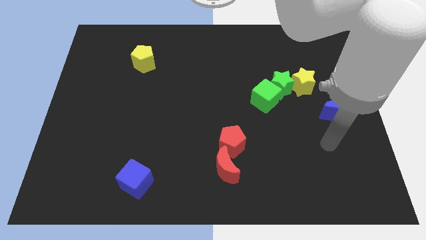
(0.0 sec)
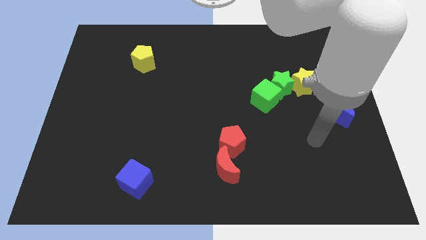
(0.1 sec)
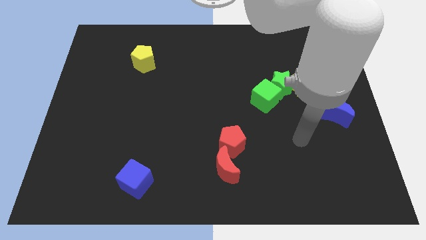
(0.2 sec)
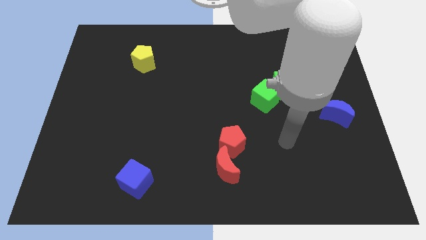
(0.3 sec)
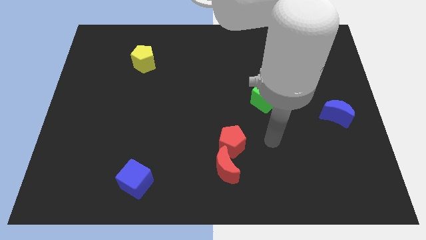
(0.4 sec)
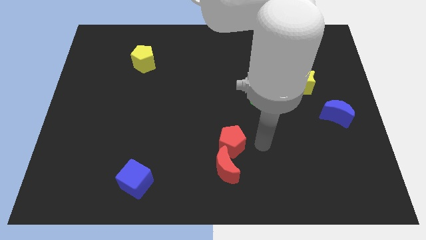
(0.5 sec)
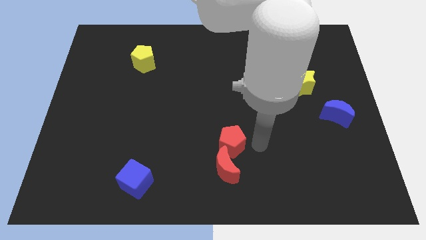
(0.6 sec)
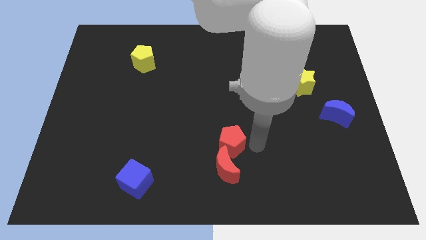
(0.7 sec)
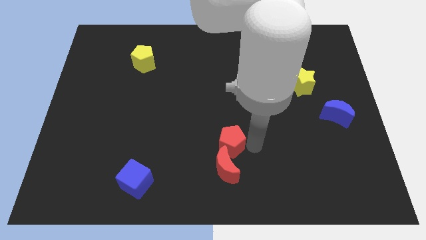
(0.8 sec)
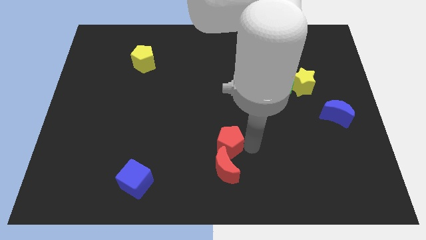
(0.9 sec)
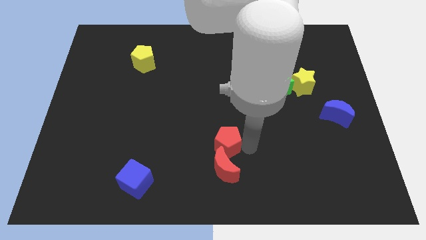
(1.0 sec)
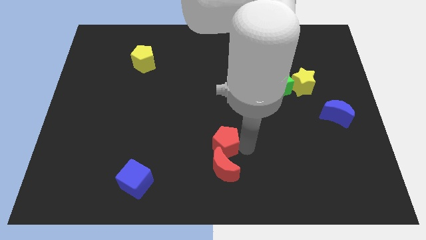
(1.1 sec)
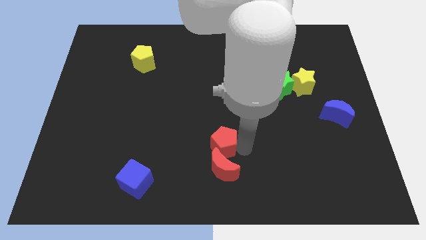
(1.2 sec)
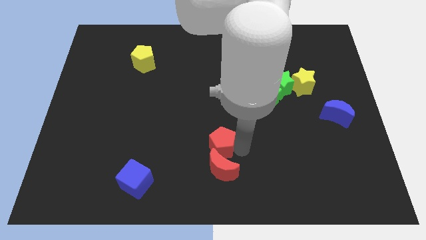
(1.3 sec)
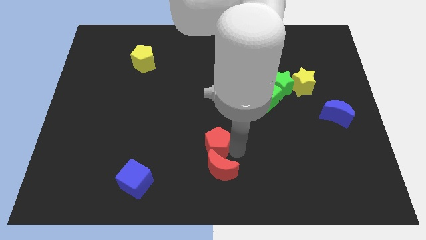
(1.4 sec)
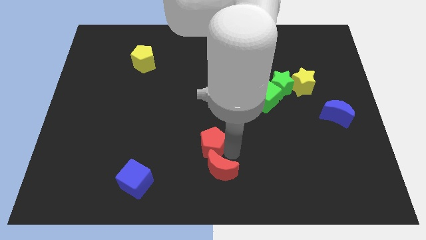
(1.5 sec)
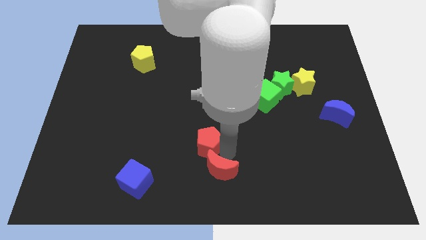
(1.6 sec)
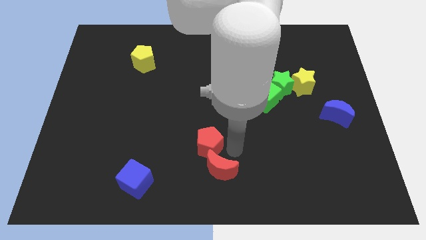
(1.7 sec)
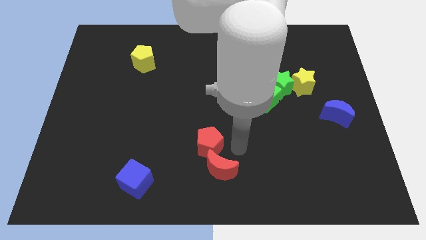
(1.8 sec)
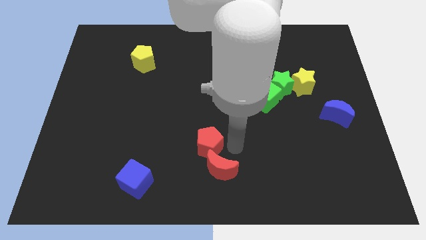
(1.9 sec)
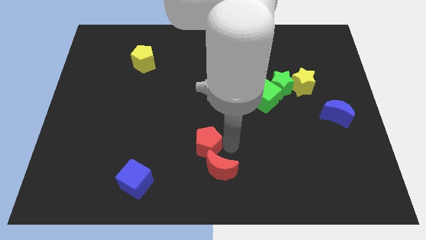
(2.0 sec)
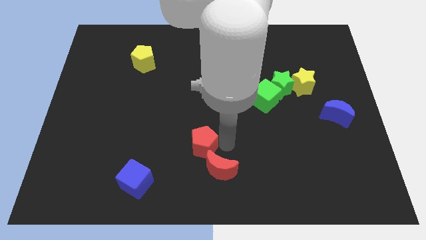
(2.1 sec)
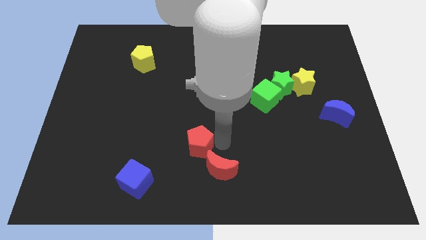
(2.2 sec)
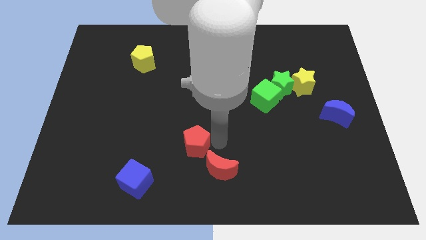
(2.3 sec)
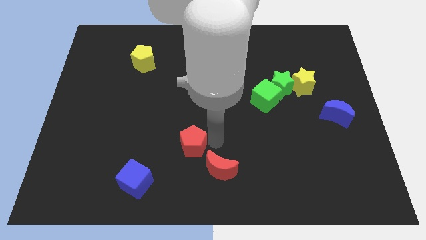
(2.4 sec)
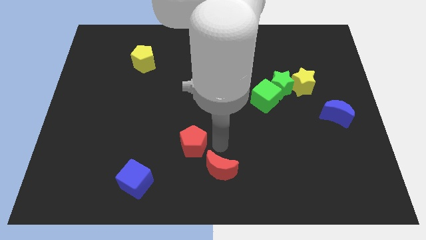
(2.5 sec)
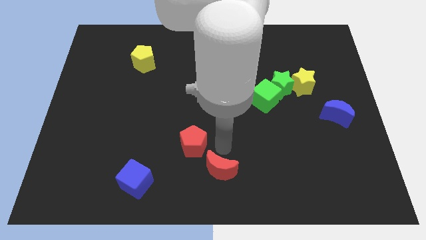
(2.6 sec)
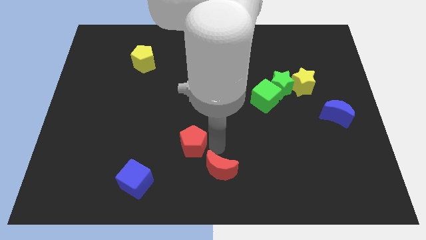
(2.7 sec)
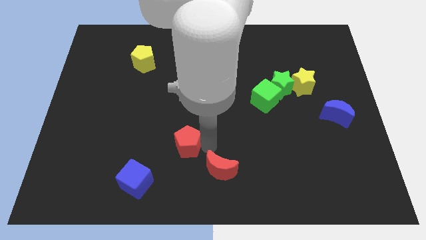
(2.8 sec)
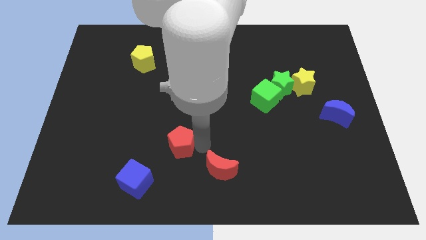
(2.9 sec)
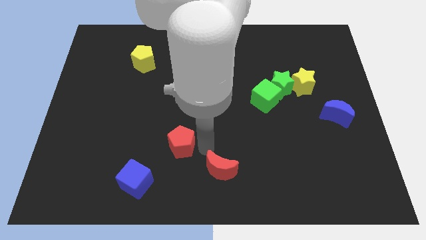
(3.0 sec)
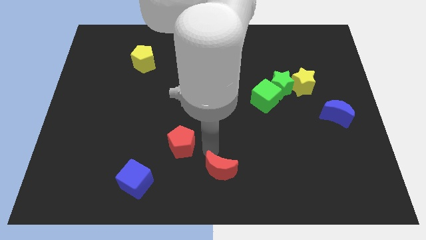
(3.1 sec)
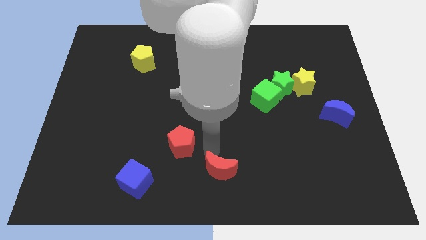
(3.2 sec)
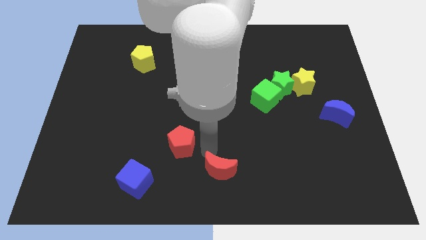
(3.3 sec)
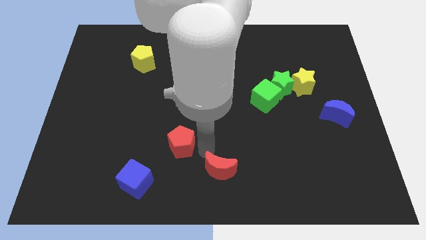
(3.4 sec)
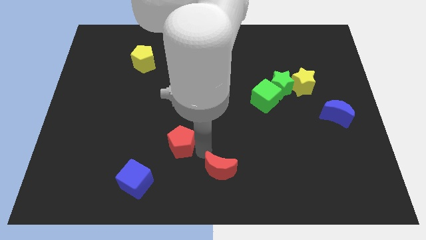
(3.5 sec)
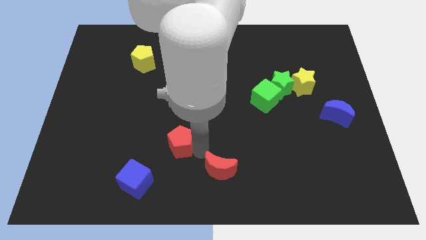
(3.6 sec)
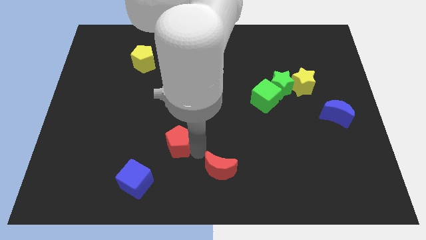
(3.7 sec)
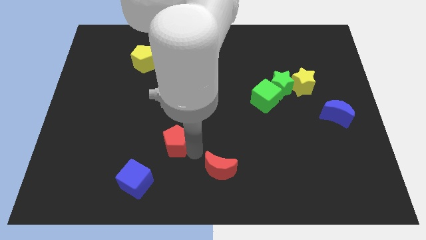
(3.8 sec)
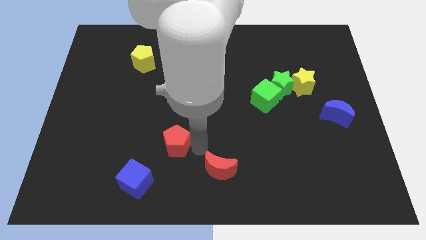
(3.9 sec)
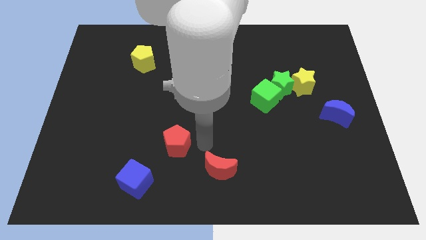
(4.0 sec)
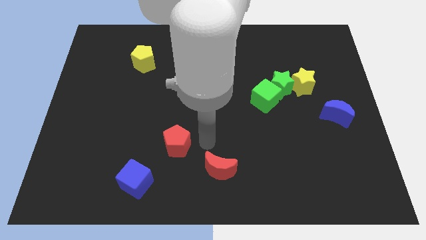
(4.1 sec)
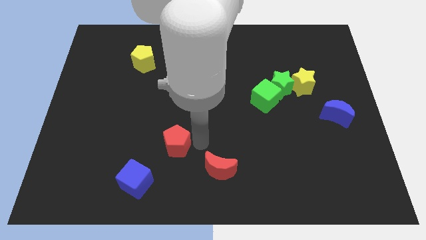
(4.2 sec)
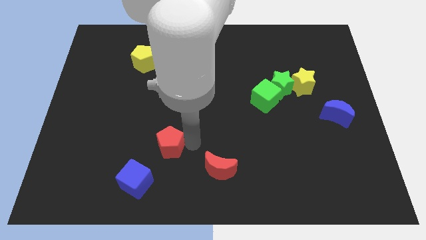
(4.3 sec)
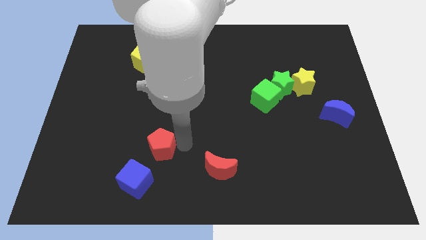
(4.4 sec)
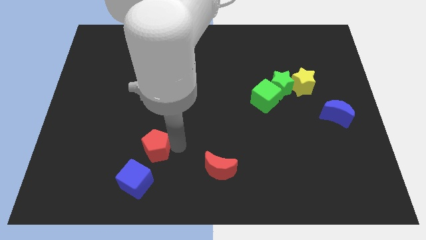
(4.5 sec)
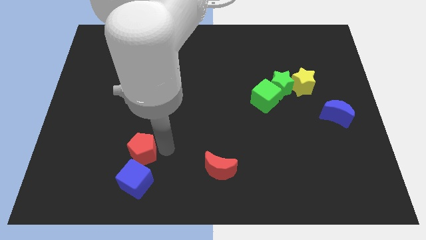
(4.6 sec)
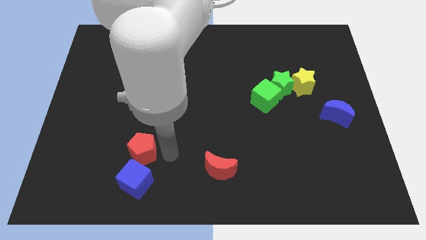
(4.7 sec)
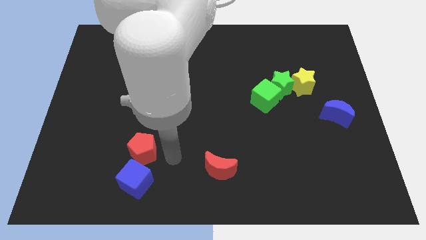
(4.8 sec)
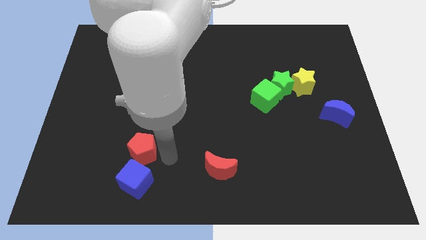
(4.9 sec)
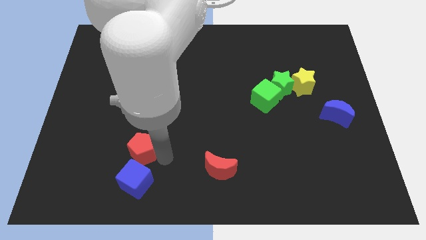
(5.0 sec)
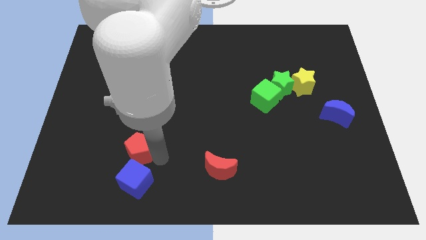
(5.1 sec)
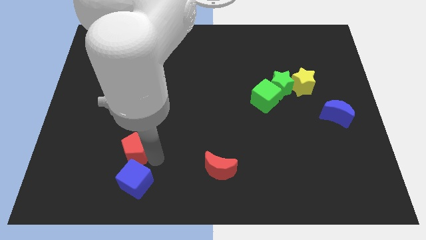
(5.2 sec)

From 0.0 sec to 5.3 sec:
slide the red pentagon to the left

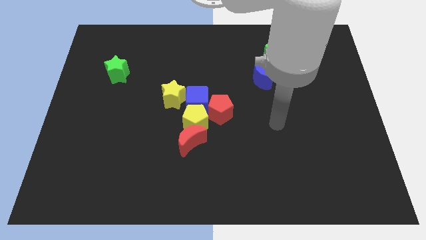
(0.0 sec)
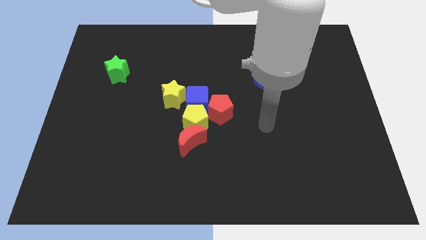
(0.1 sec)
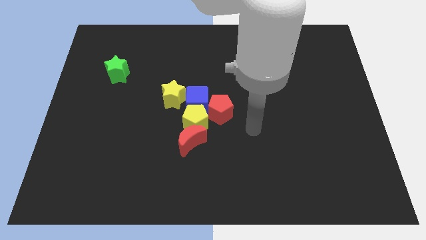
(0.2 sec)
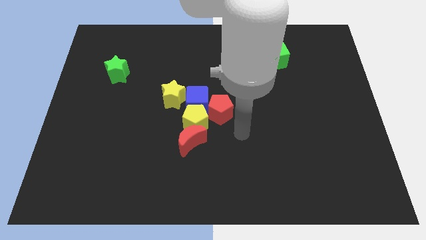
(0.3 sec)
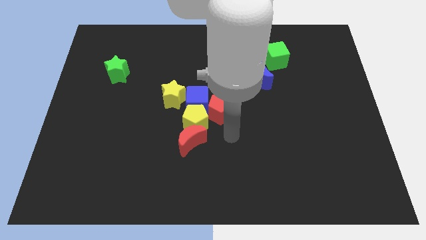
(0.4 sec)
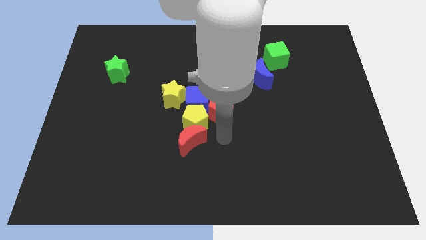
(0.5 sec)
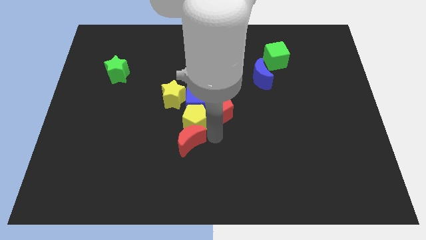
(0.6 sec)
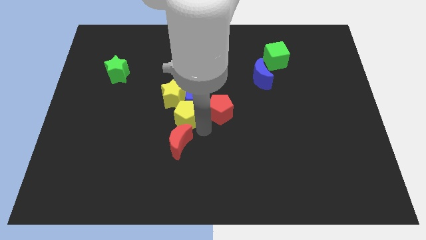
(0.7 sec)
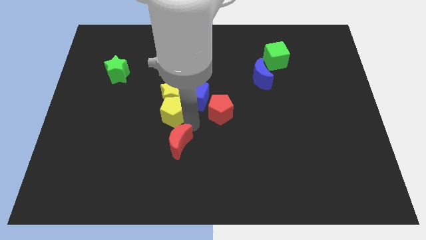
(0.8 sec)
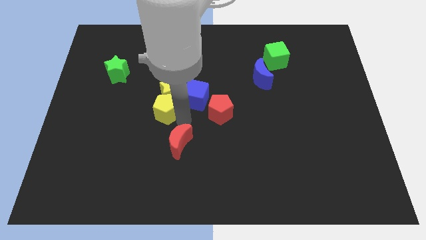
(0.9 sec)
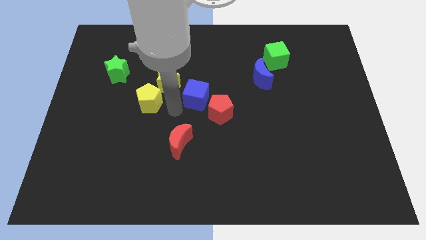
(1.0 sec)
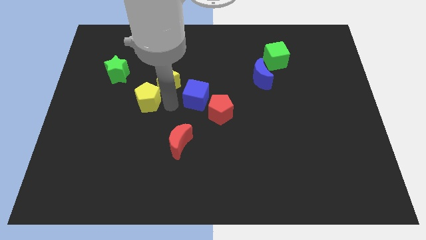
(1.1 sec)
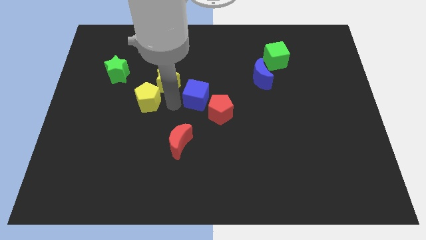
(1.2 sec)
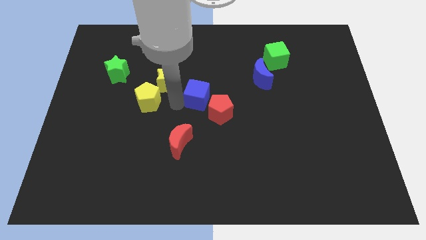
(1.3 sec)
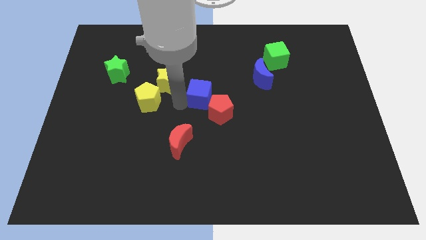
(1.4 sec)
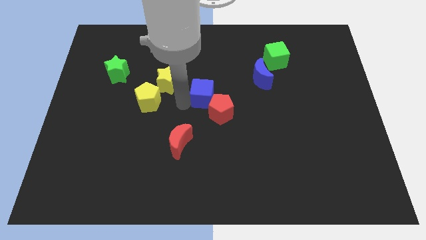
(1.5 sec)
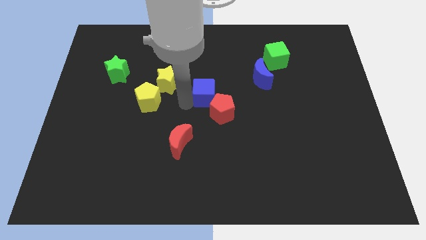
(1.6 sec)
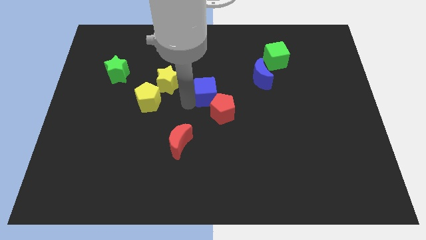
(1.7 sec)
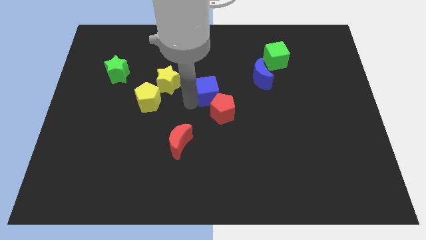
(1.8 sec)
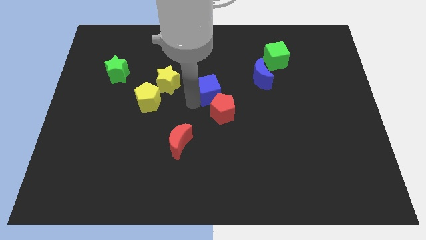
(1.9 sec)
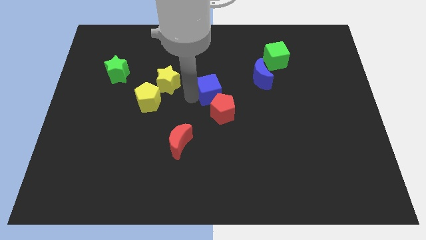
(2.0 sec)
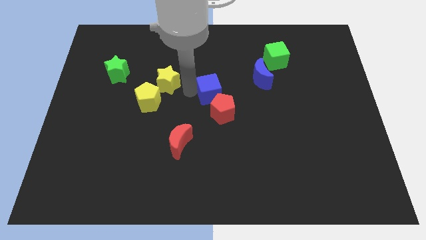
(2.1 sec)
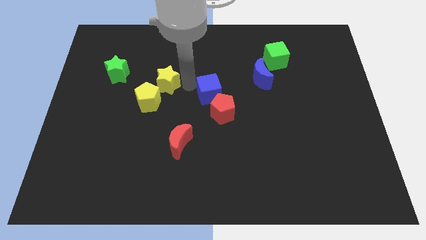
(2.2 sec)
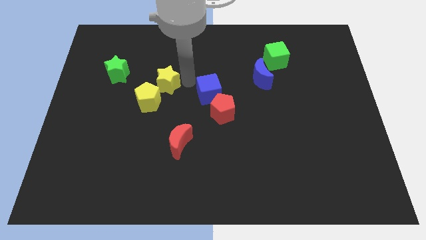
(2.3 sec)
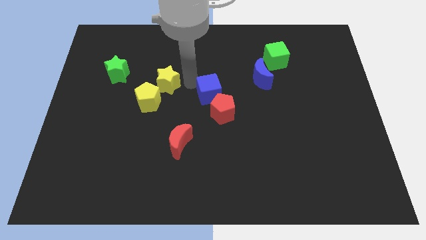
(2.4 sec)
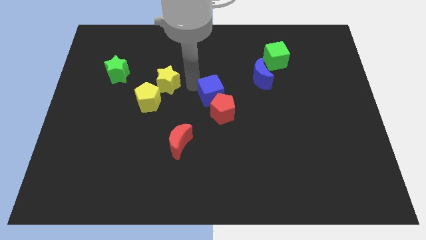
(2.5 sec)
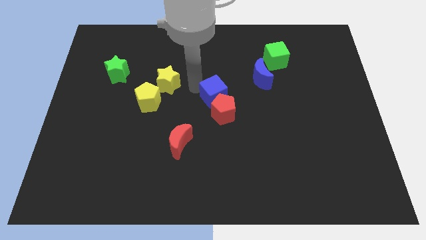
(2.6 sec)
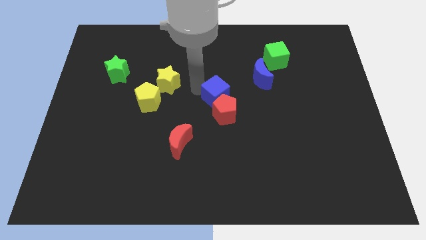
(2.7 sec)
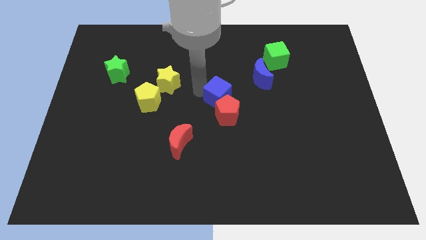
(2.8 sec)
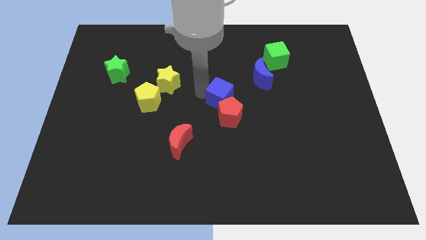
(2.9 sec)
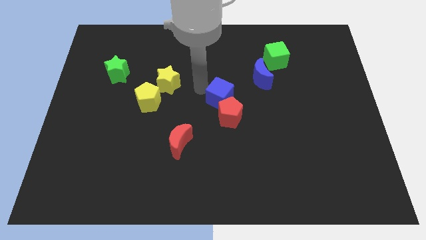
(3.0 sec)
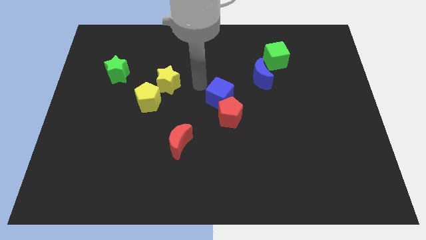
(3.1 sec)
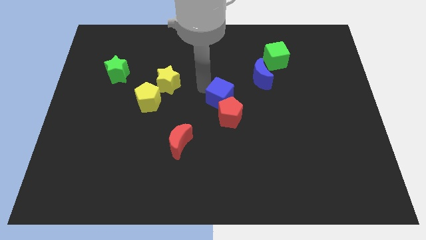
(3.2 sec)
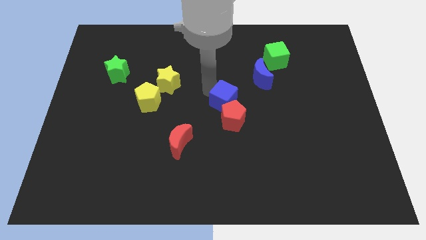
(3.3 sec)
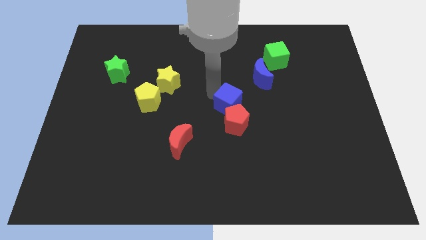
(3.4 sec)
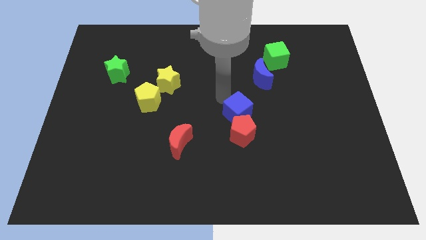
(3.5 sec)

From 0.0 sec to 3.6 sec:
slide the blue cube down and to the right diagonally a little
